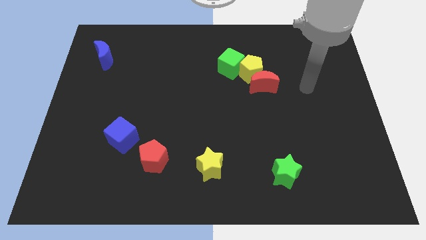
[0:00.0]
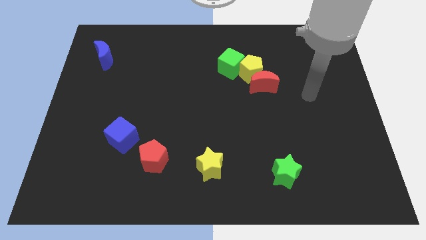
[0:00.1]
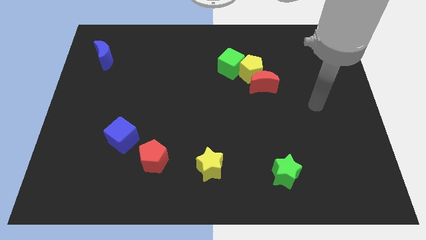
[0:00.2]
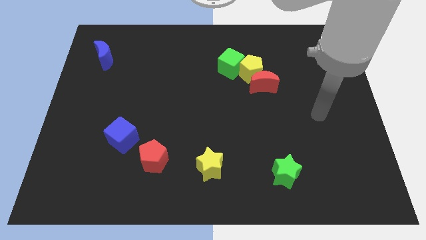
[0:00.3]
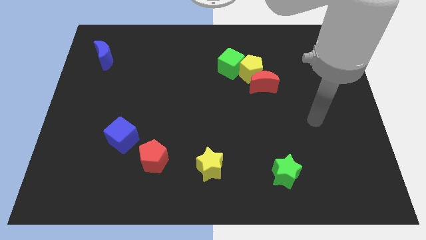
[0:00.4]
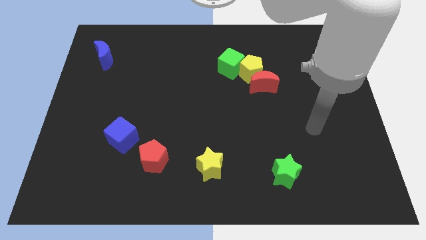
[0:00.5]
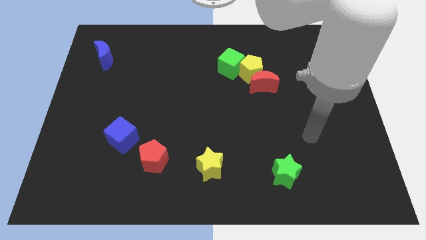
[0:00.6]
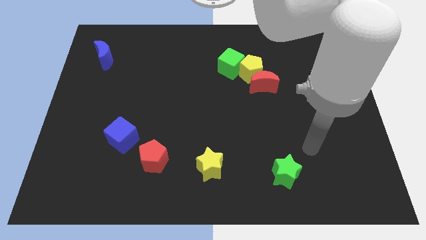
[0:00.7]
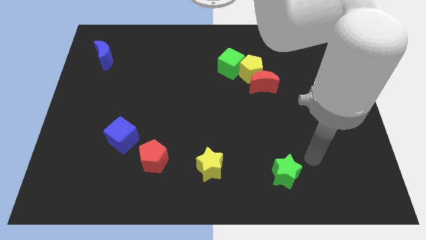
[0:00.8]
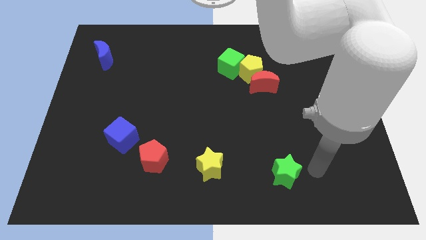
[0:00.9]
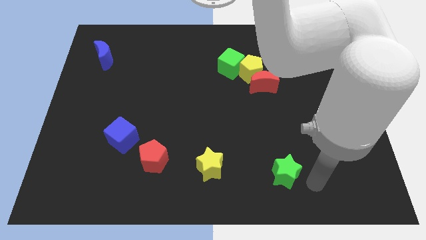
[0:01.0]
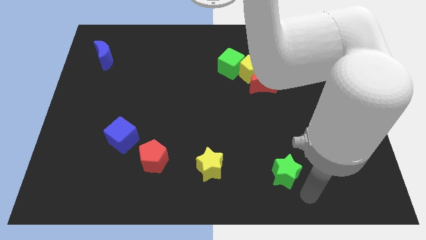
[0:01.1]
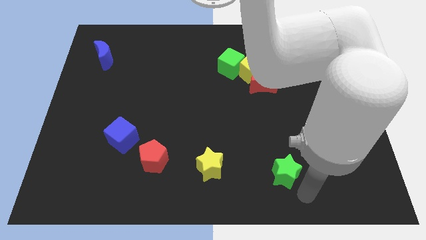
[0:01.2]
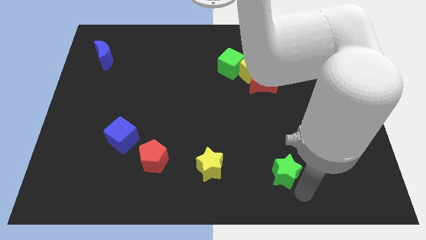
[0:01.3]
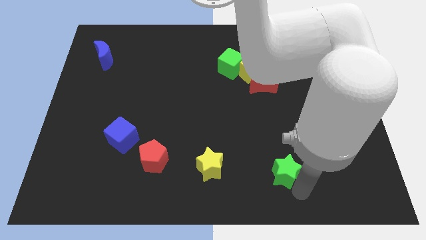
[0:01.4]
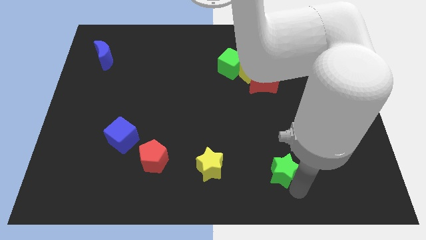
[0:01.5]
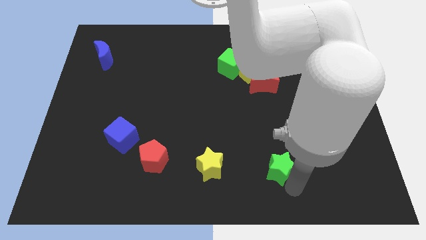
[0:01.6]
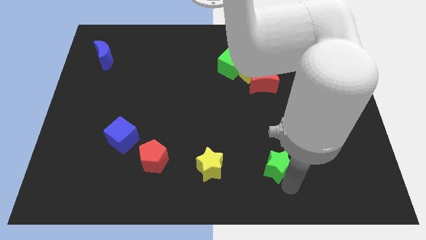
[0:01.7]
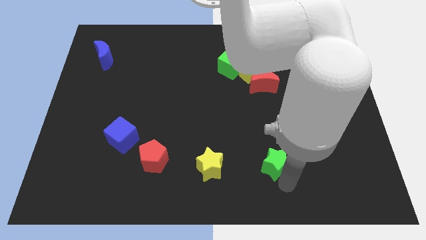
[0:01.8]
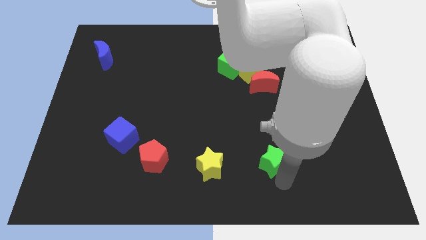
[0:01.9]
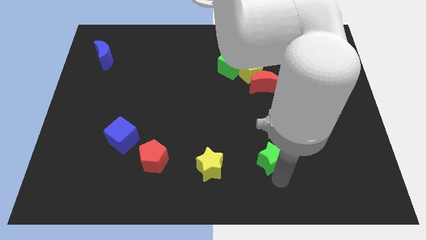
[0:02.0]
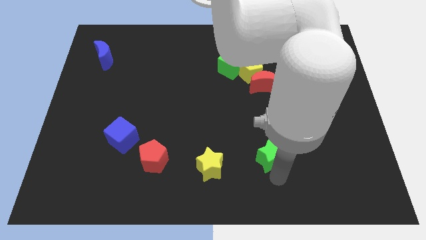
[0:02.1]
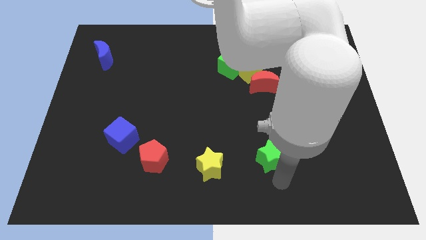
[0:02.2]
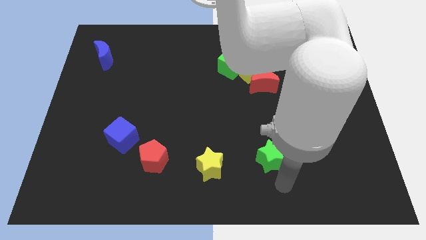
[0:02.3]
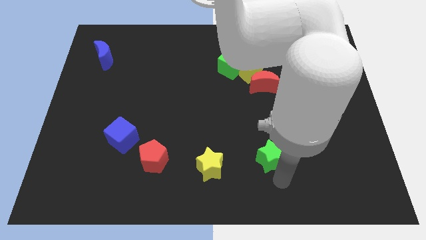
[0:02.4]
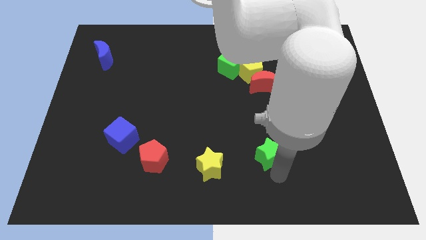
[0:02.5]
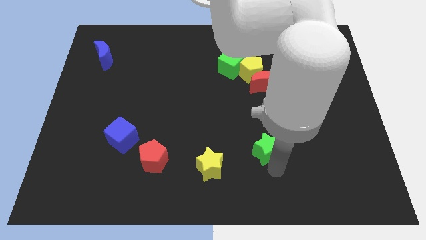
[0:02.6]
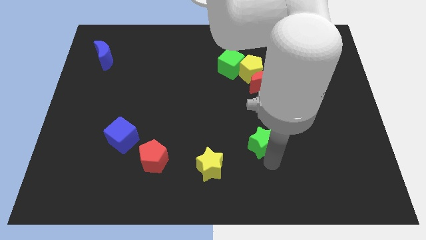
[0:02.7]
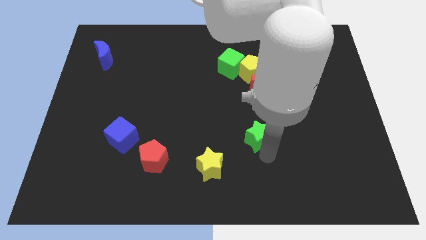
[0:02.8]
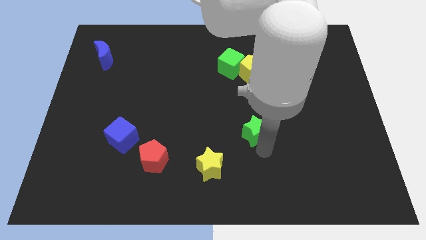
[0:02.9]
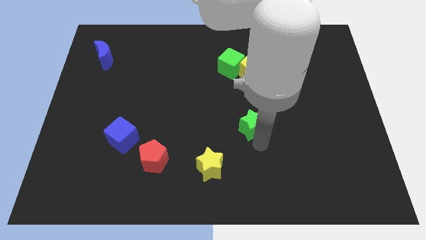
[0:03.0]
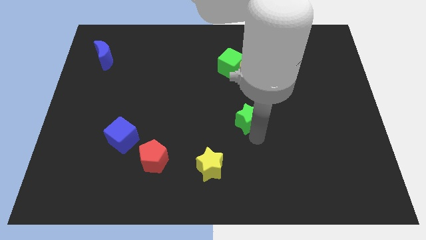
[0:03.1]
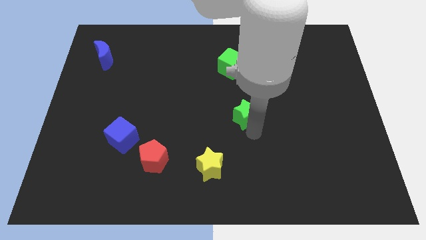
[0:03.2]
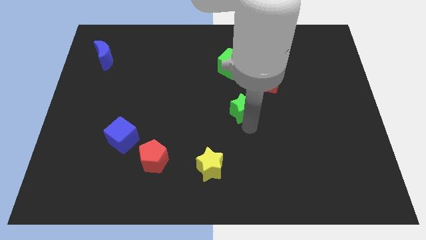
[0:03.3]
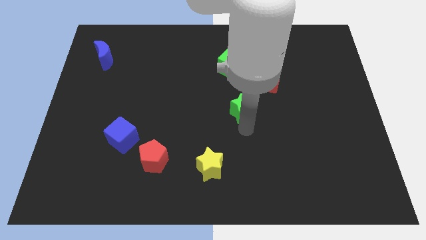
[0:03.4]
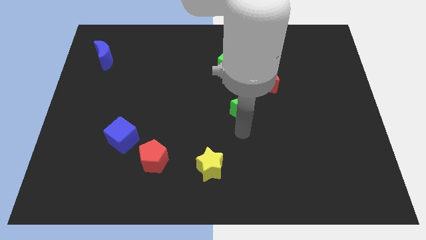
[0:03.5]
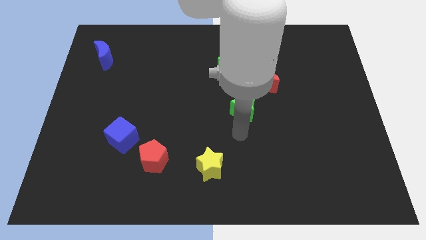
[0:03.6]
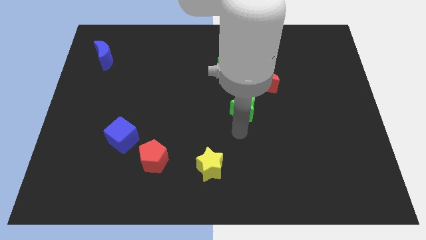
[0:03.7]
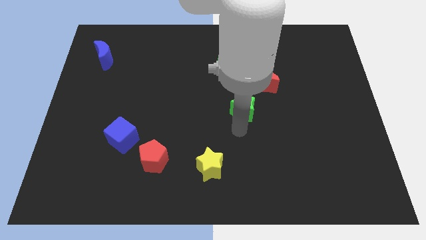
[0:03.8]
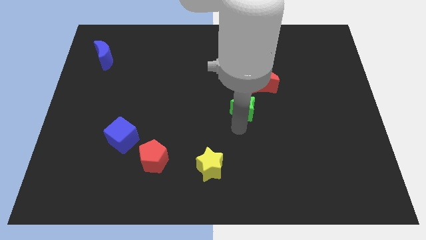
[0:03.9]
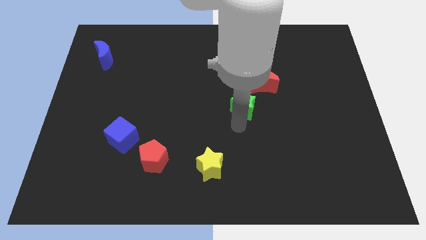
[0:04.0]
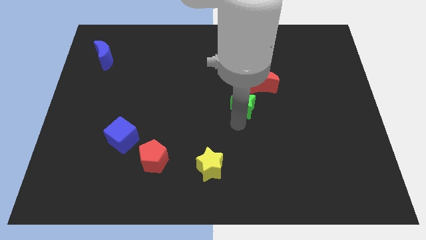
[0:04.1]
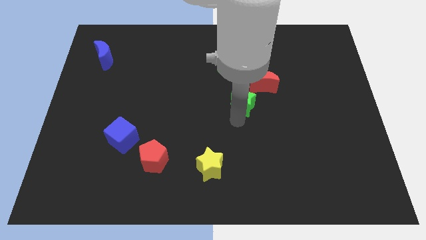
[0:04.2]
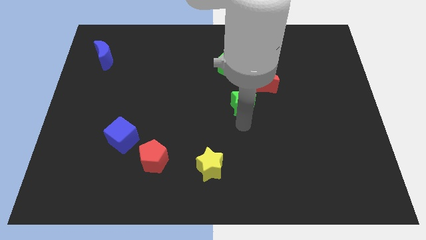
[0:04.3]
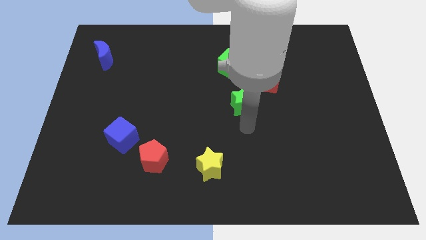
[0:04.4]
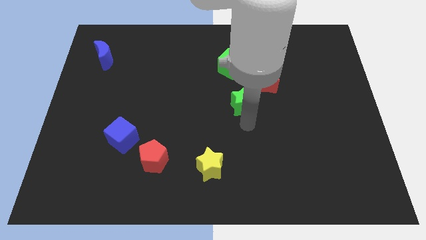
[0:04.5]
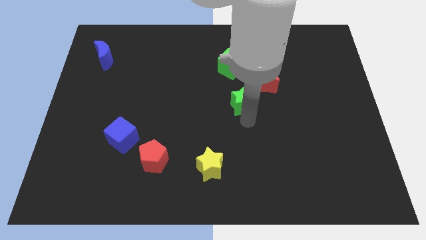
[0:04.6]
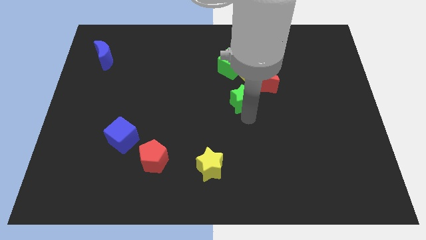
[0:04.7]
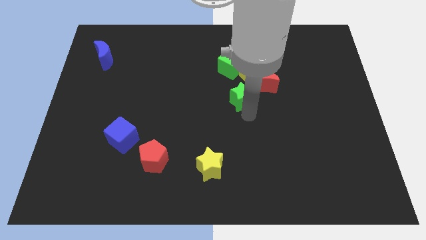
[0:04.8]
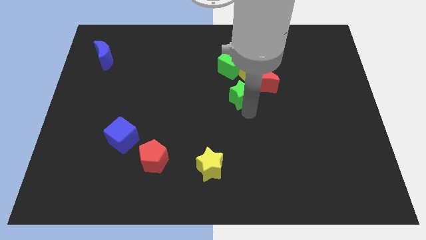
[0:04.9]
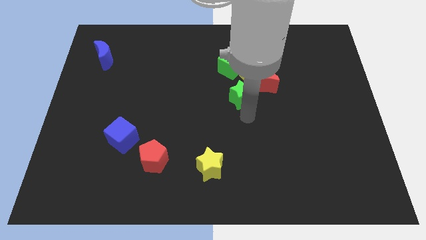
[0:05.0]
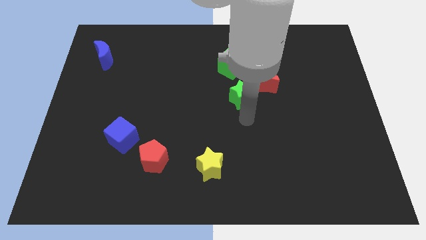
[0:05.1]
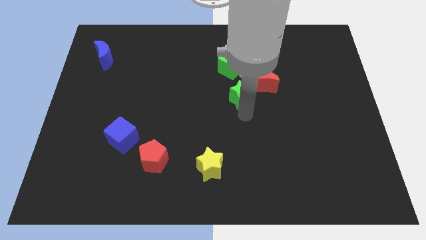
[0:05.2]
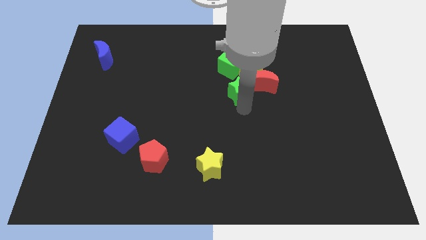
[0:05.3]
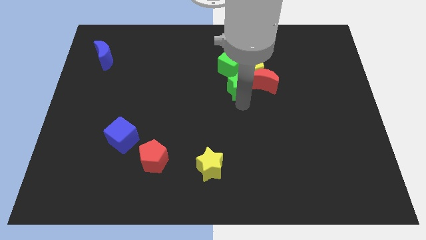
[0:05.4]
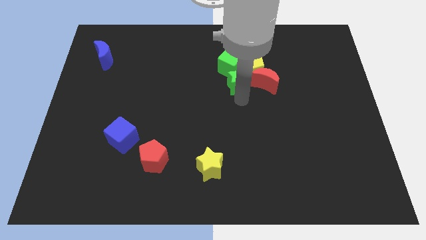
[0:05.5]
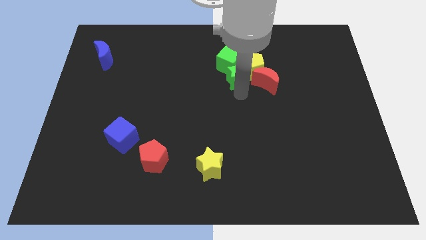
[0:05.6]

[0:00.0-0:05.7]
push the green star close to the green cube

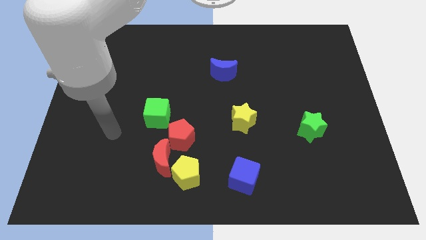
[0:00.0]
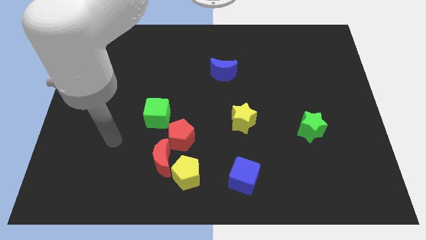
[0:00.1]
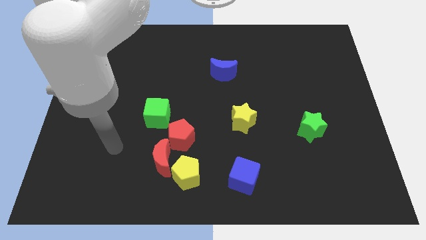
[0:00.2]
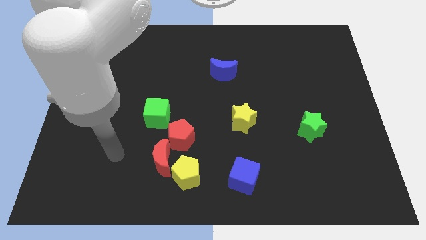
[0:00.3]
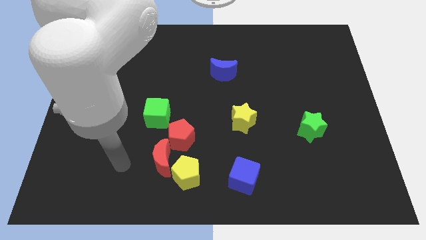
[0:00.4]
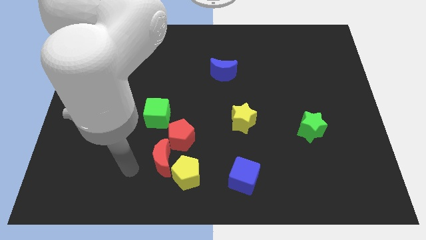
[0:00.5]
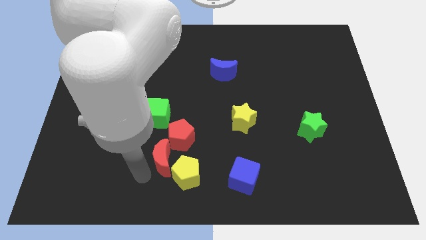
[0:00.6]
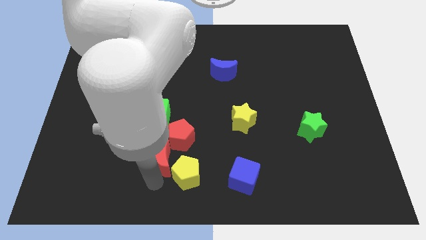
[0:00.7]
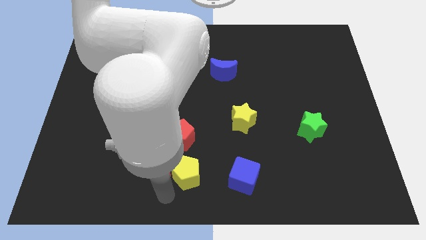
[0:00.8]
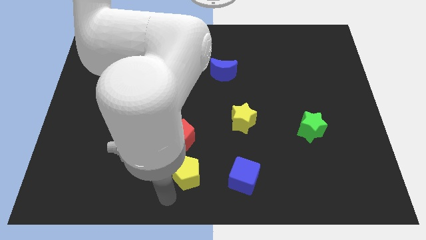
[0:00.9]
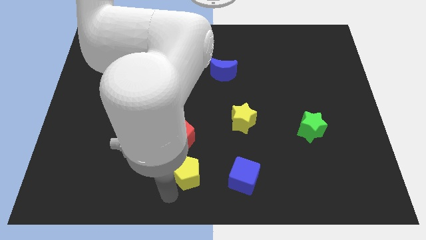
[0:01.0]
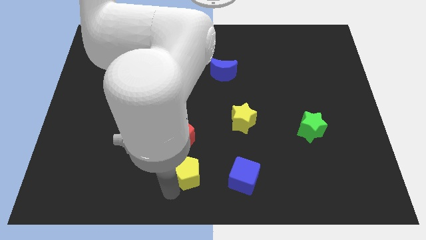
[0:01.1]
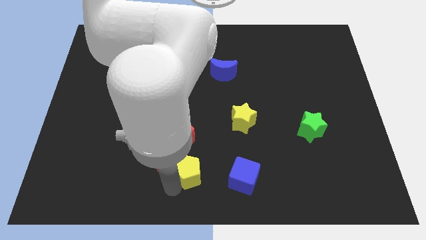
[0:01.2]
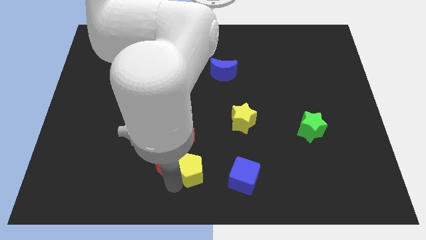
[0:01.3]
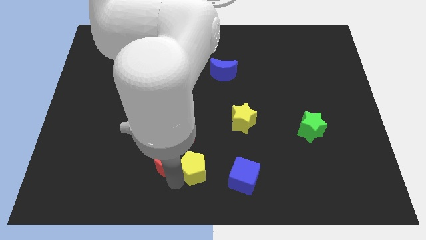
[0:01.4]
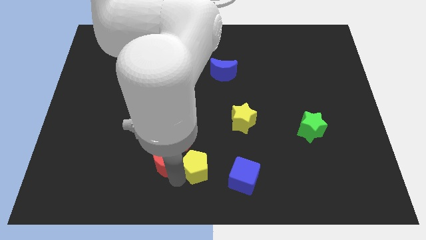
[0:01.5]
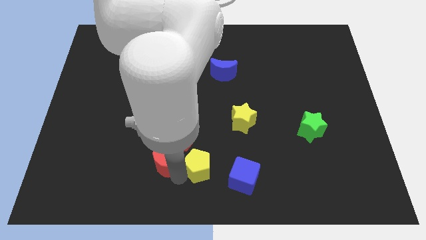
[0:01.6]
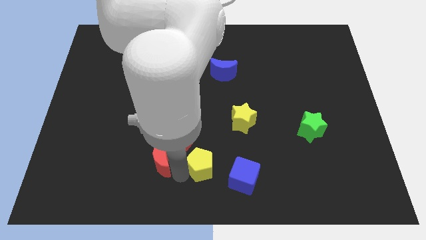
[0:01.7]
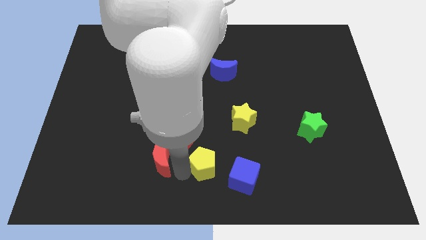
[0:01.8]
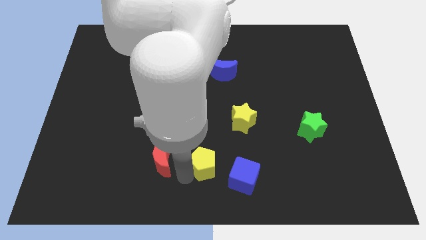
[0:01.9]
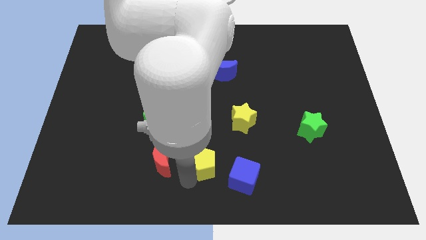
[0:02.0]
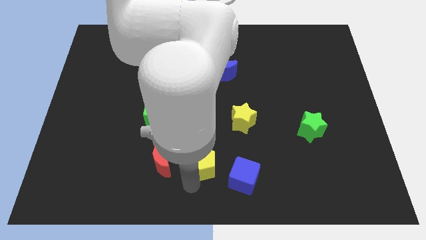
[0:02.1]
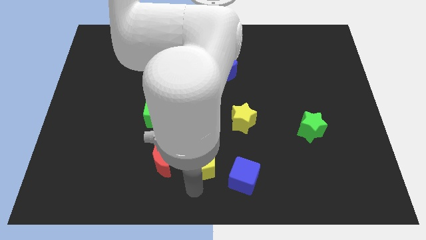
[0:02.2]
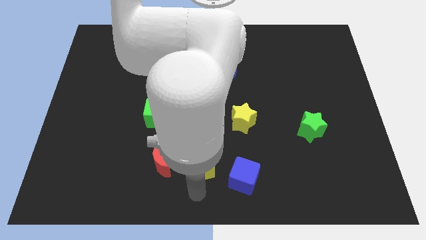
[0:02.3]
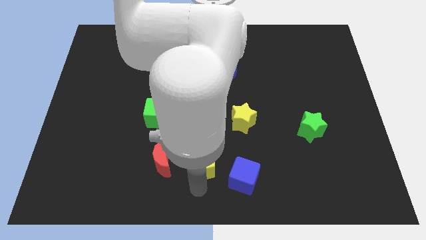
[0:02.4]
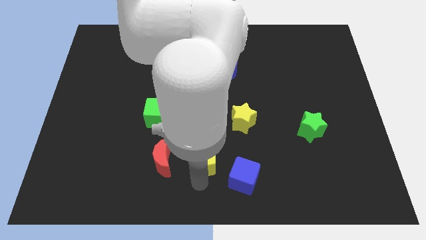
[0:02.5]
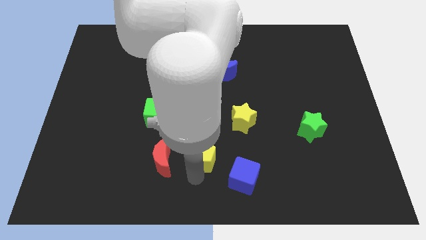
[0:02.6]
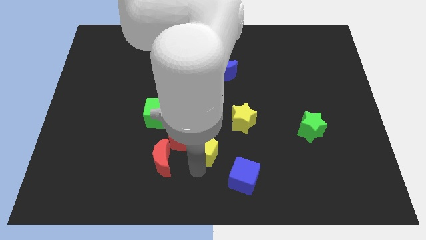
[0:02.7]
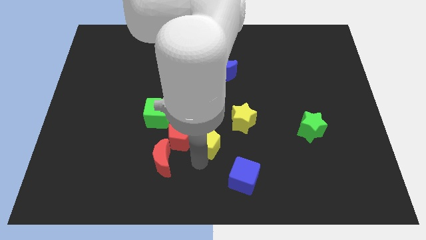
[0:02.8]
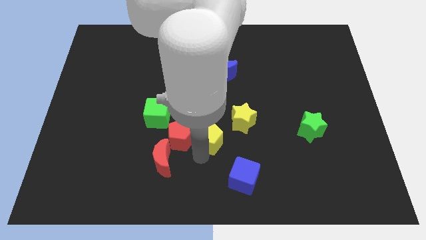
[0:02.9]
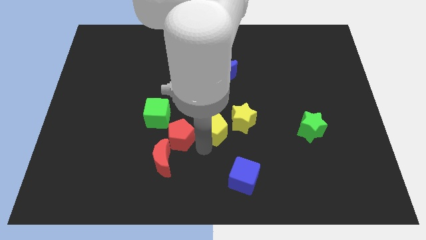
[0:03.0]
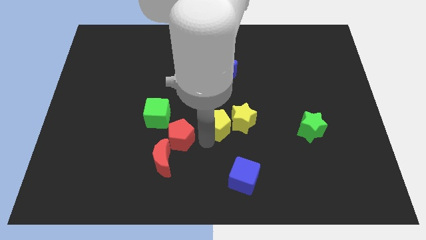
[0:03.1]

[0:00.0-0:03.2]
put the yellow pentagon next to the yellow star
